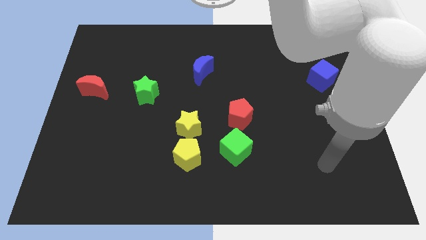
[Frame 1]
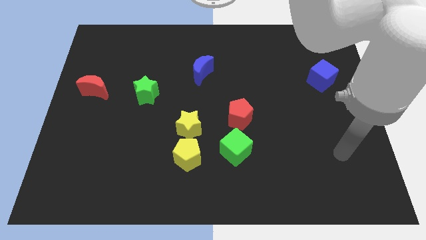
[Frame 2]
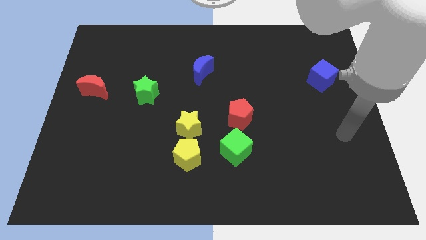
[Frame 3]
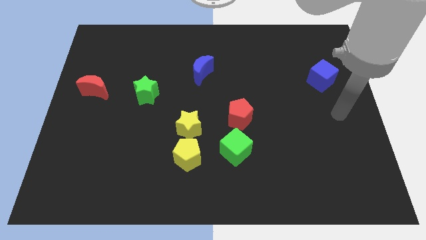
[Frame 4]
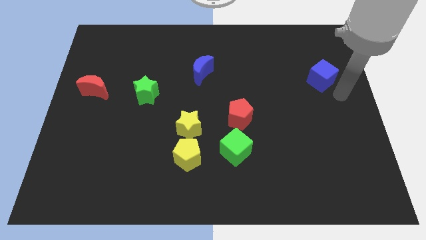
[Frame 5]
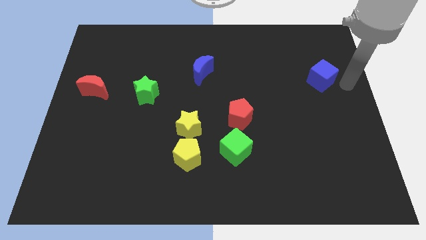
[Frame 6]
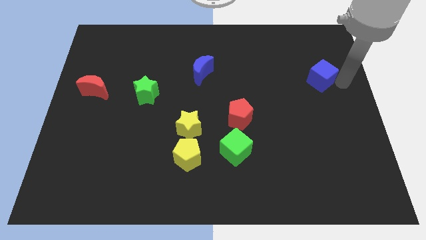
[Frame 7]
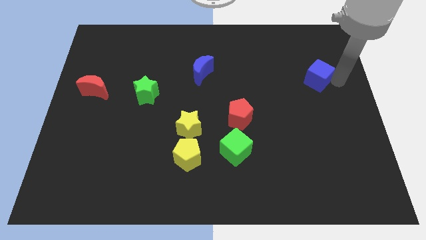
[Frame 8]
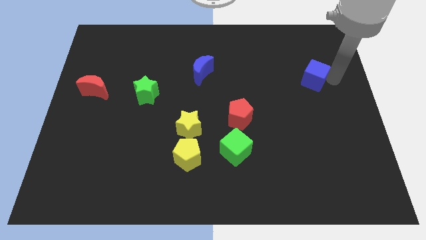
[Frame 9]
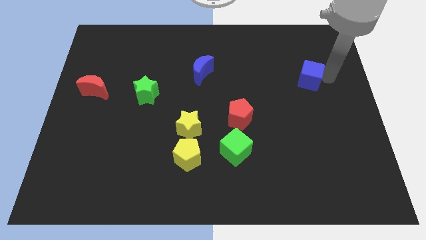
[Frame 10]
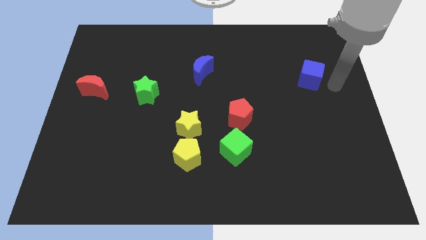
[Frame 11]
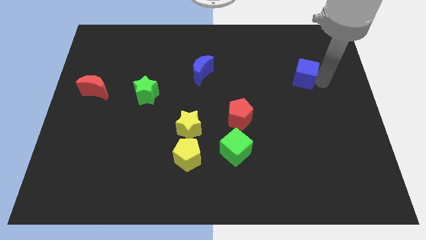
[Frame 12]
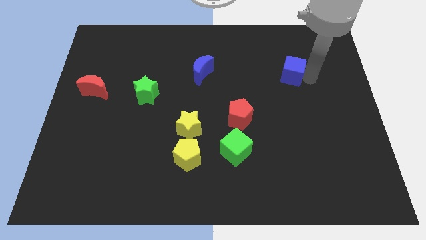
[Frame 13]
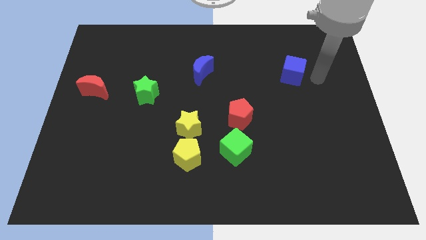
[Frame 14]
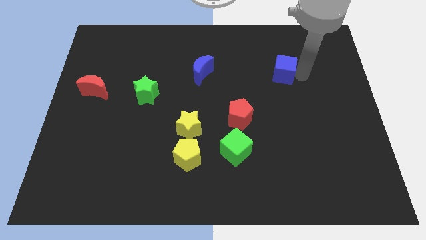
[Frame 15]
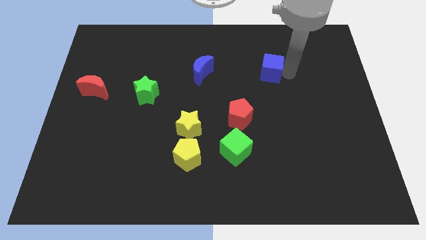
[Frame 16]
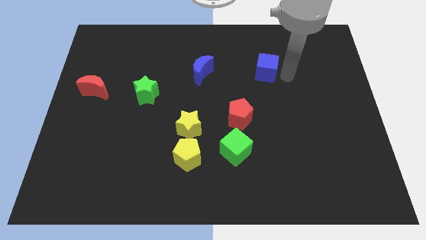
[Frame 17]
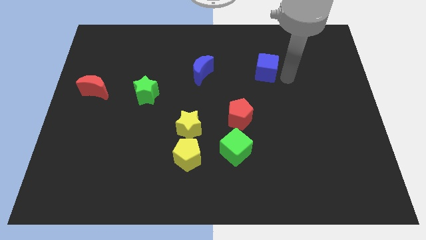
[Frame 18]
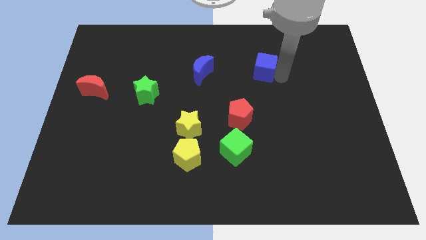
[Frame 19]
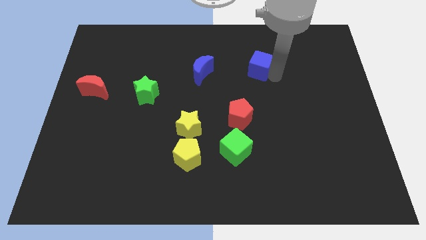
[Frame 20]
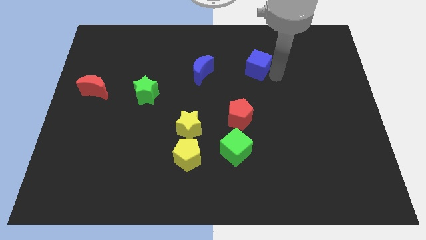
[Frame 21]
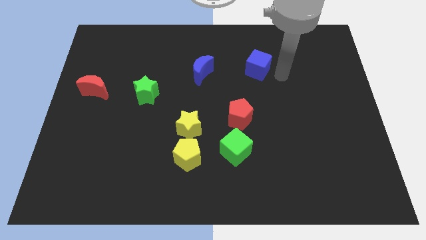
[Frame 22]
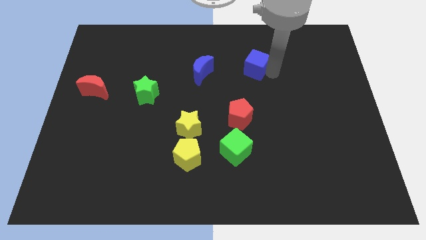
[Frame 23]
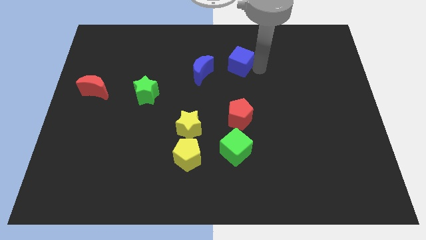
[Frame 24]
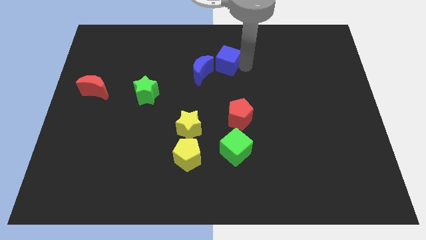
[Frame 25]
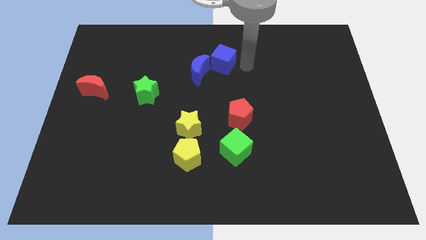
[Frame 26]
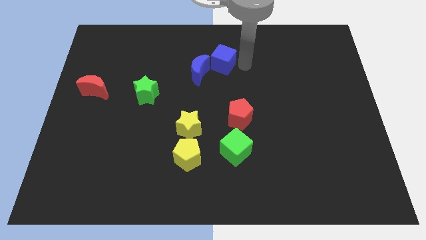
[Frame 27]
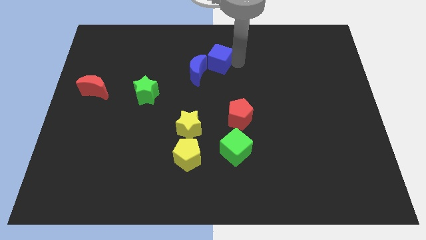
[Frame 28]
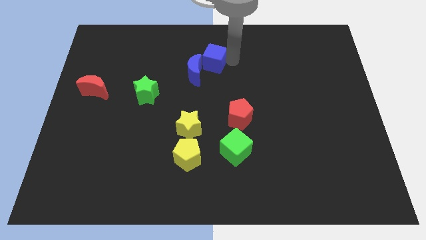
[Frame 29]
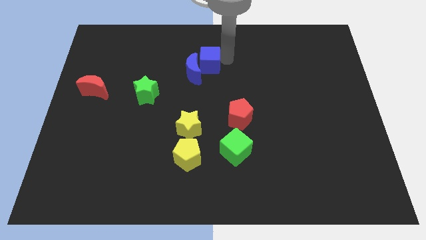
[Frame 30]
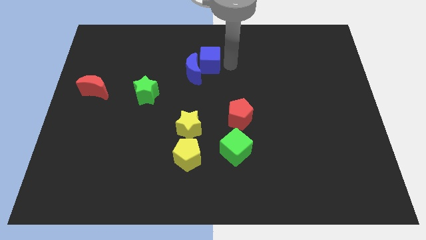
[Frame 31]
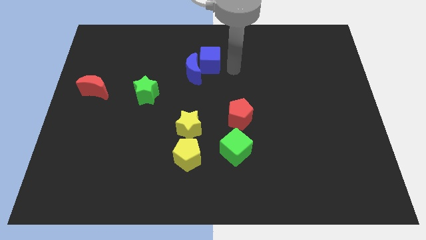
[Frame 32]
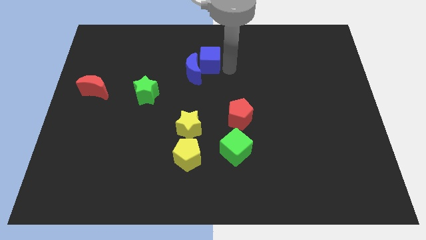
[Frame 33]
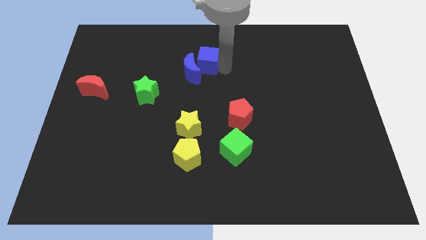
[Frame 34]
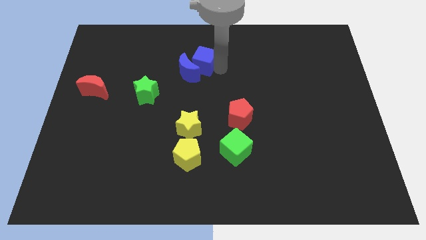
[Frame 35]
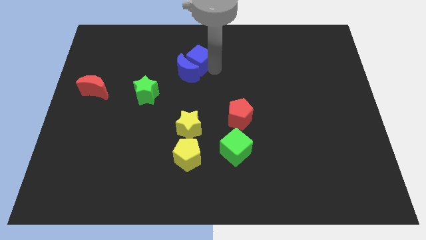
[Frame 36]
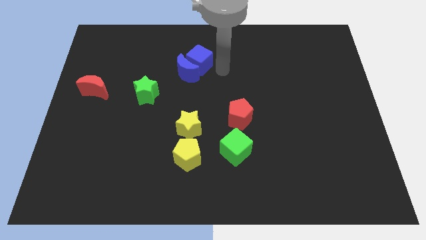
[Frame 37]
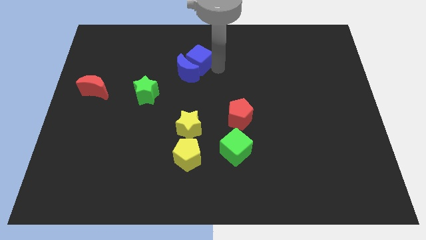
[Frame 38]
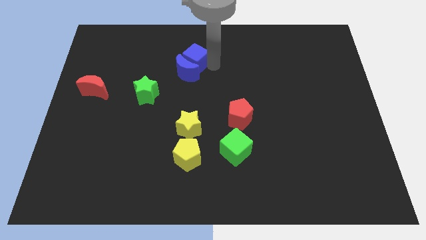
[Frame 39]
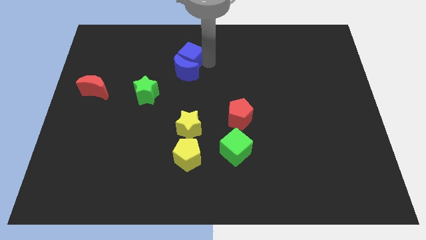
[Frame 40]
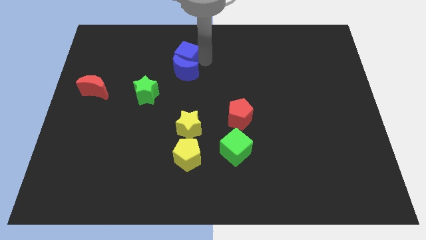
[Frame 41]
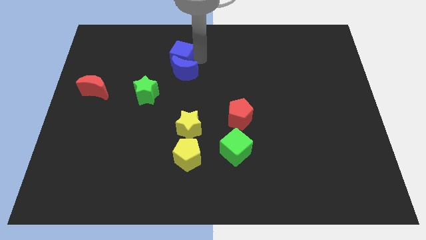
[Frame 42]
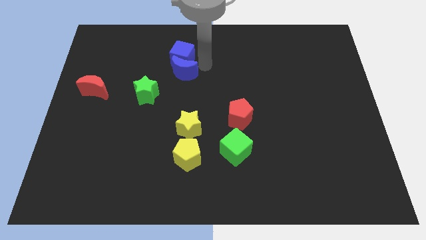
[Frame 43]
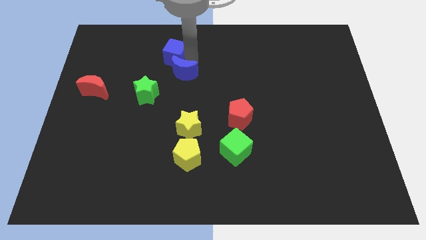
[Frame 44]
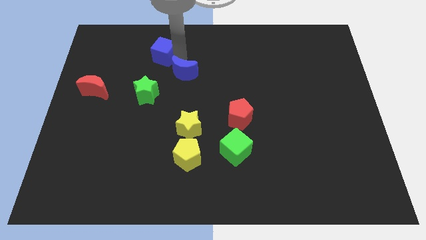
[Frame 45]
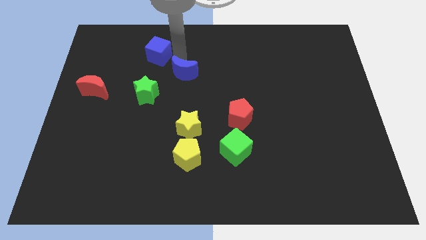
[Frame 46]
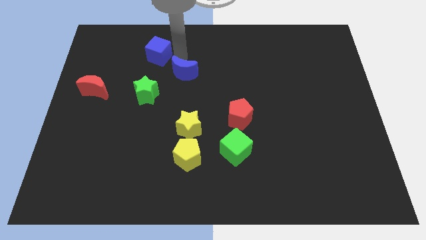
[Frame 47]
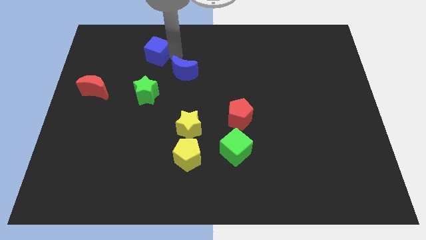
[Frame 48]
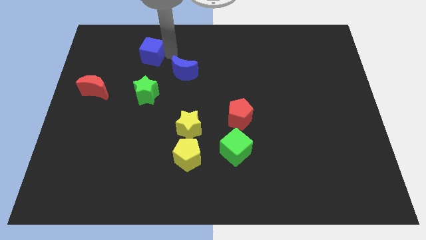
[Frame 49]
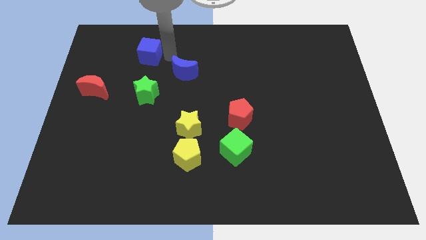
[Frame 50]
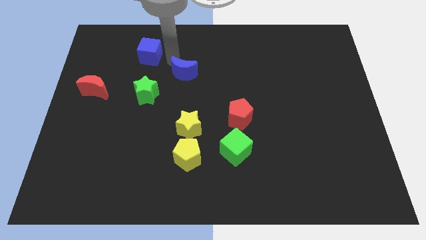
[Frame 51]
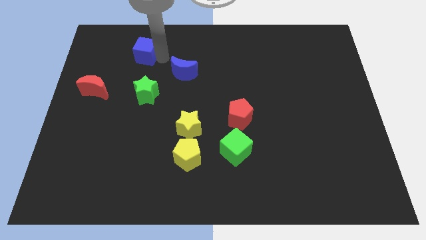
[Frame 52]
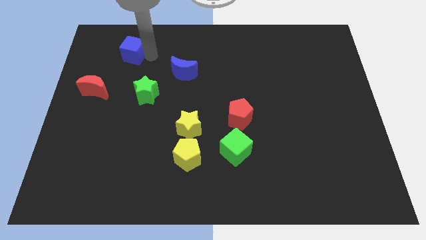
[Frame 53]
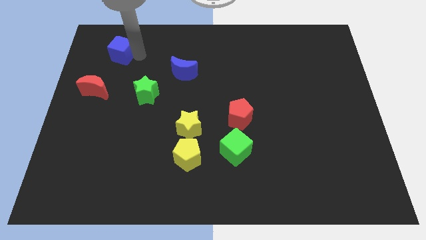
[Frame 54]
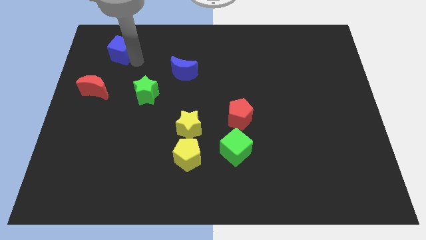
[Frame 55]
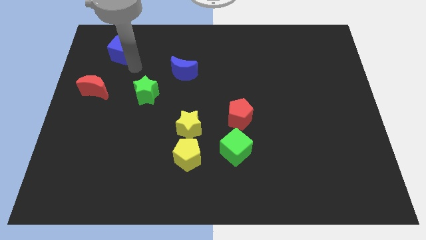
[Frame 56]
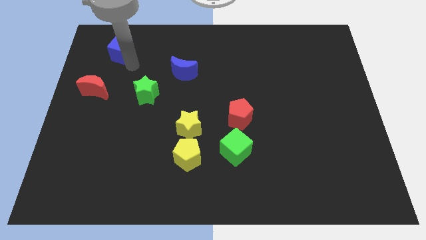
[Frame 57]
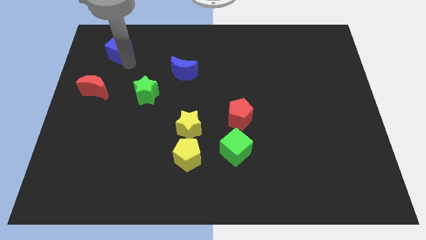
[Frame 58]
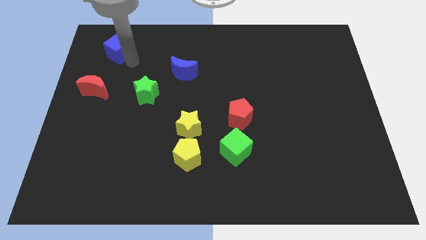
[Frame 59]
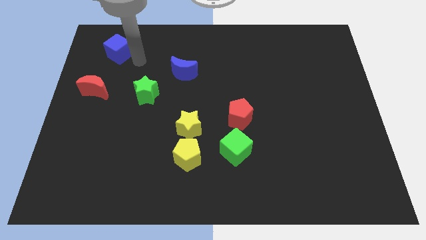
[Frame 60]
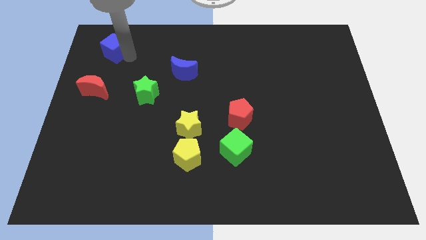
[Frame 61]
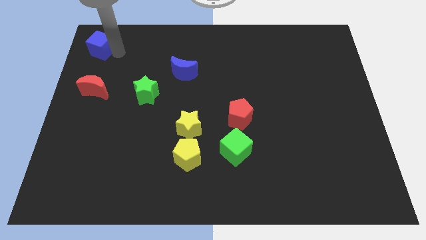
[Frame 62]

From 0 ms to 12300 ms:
put the blue cube to the top left
